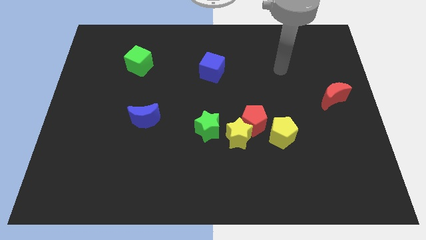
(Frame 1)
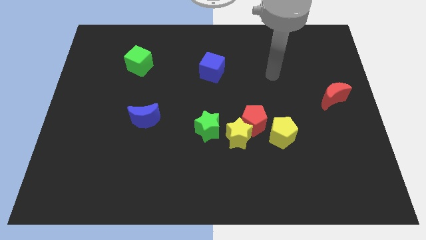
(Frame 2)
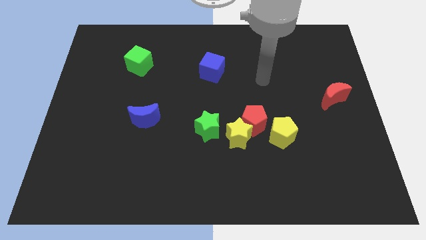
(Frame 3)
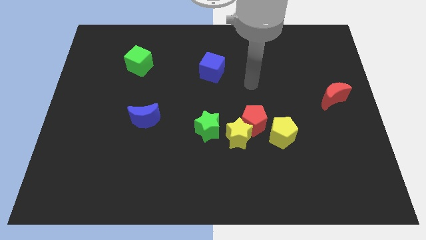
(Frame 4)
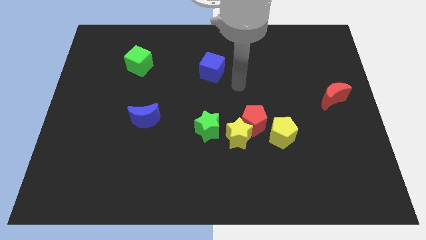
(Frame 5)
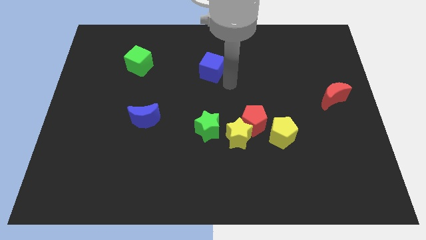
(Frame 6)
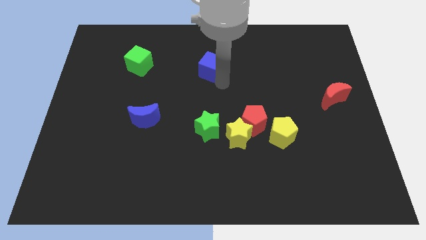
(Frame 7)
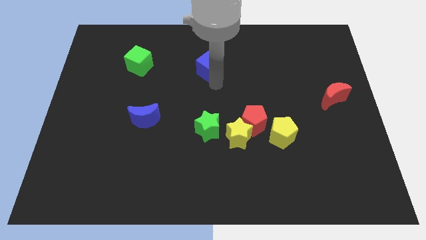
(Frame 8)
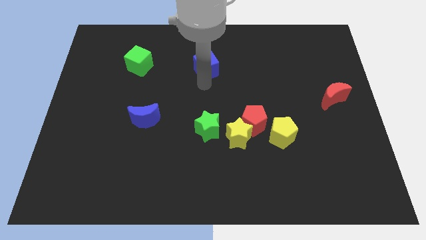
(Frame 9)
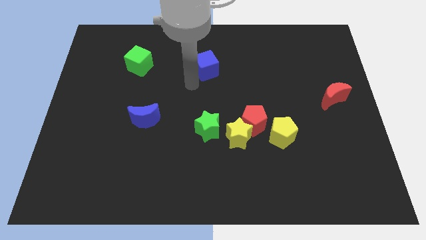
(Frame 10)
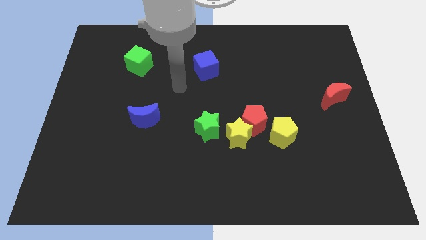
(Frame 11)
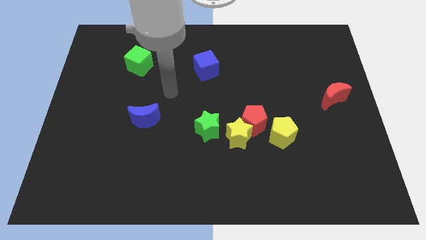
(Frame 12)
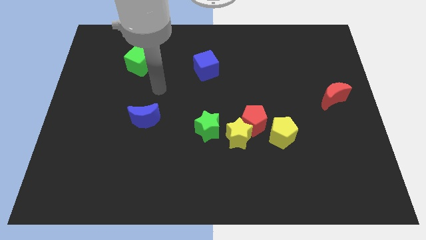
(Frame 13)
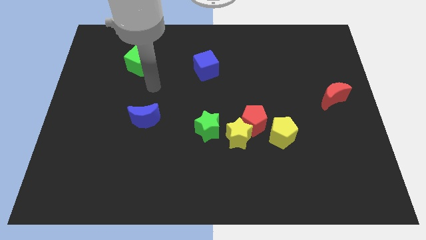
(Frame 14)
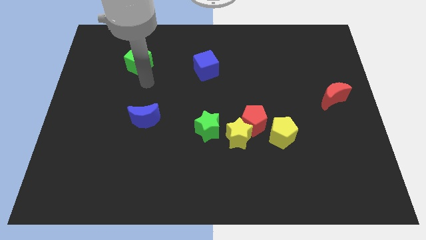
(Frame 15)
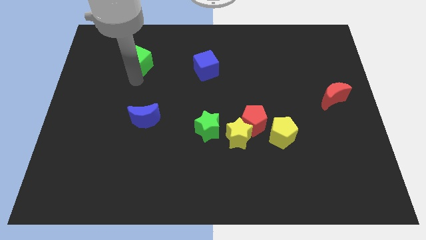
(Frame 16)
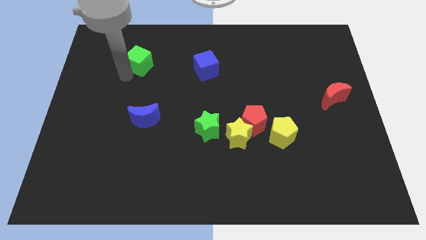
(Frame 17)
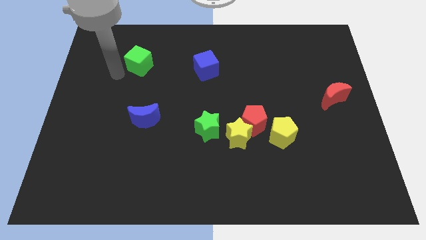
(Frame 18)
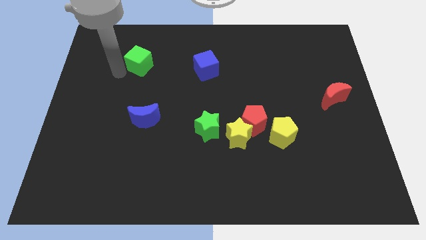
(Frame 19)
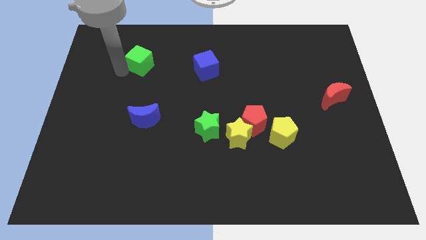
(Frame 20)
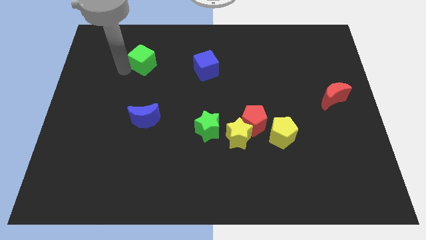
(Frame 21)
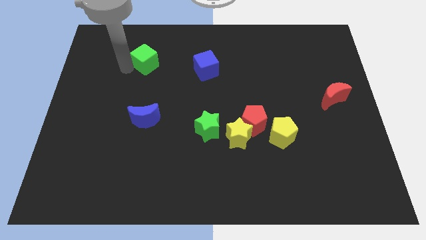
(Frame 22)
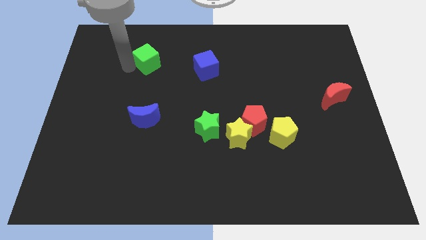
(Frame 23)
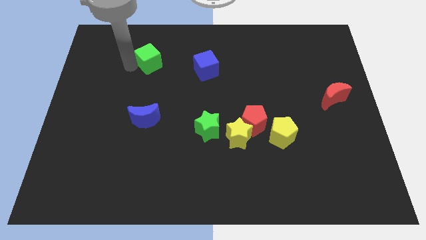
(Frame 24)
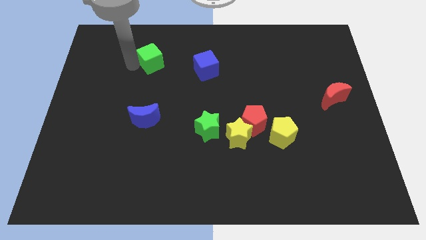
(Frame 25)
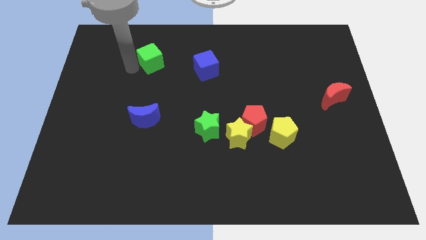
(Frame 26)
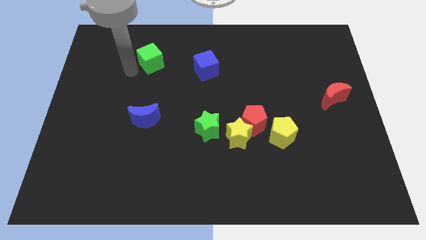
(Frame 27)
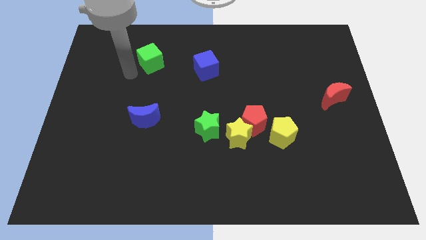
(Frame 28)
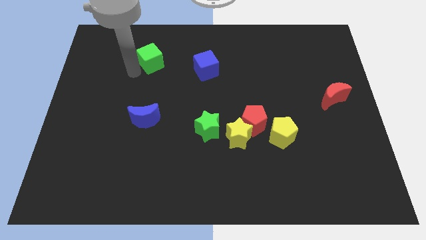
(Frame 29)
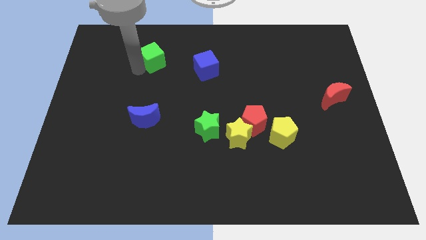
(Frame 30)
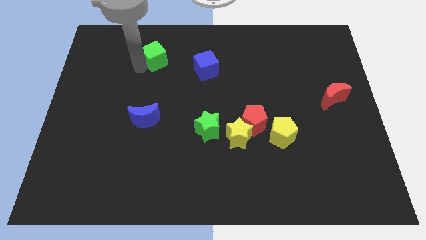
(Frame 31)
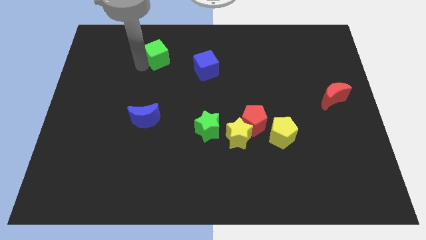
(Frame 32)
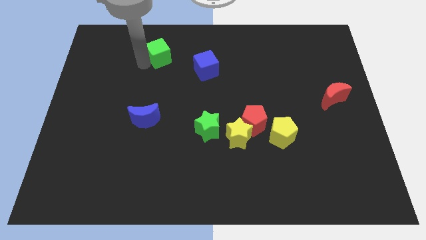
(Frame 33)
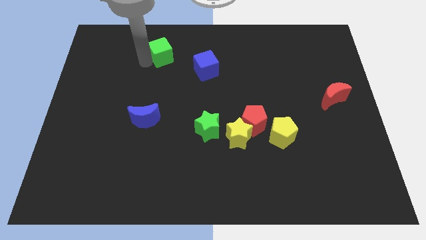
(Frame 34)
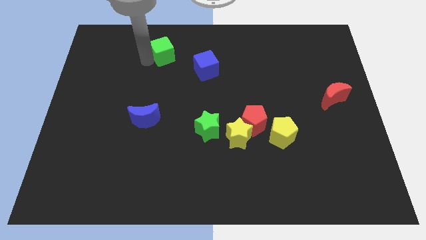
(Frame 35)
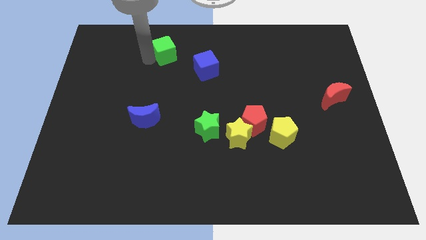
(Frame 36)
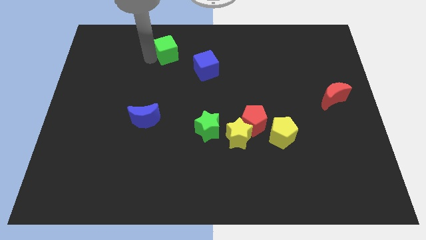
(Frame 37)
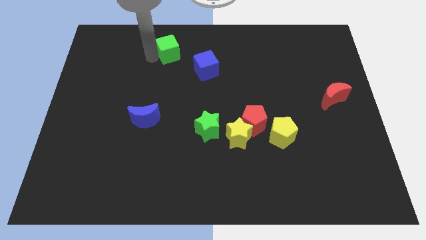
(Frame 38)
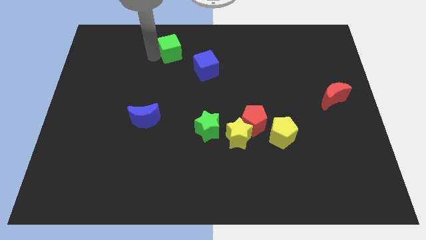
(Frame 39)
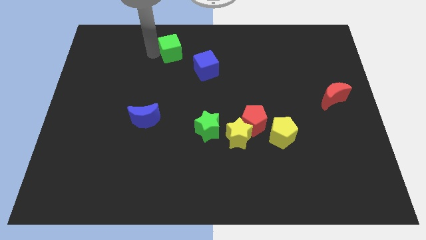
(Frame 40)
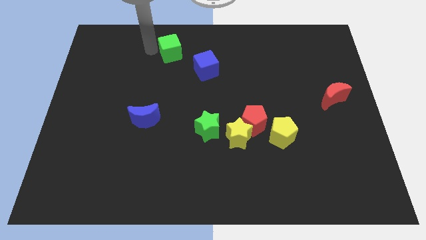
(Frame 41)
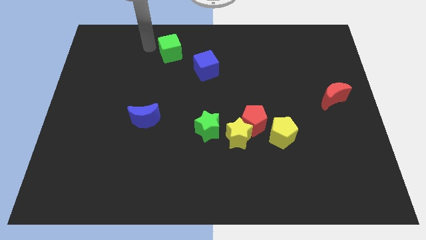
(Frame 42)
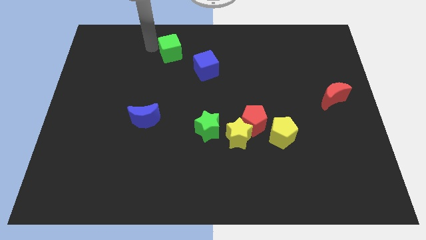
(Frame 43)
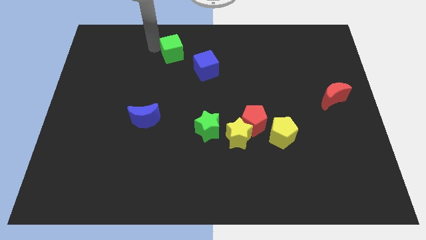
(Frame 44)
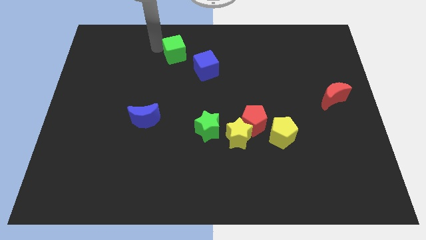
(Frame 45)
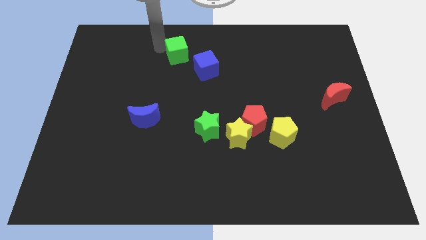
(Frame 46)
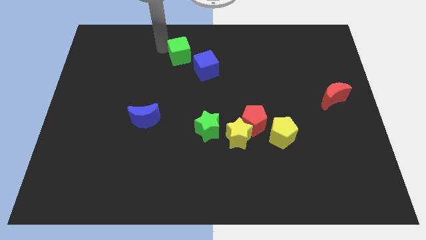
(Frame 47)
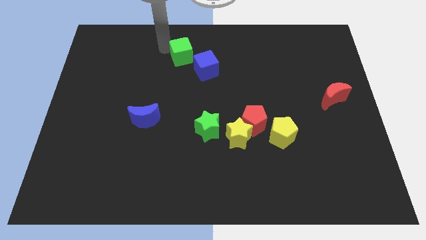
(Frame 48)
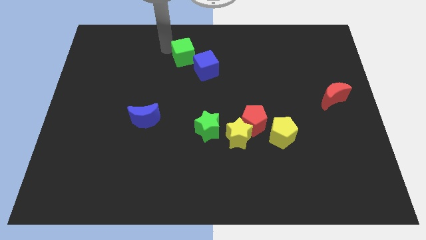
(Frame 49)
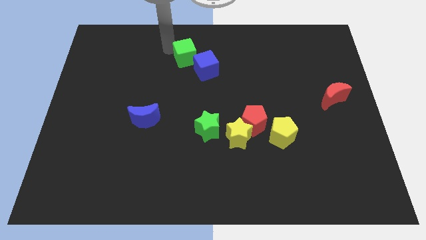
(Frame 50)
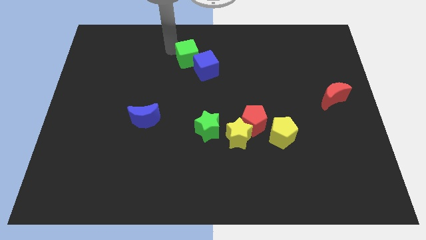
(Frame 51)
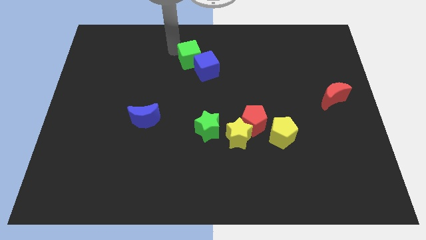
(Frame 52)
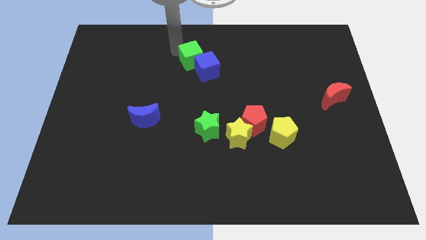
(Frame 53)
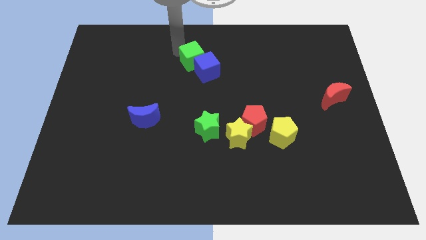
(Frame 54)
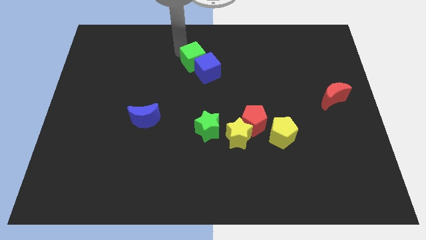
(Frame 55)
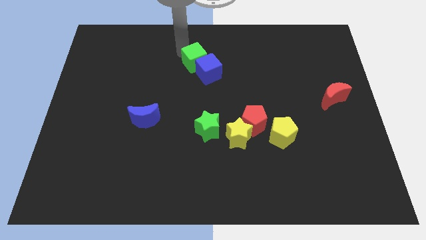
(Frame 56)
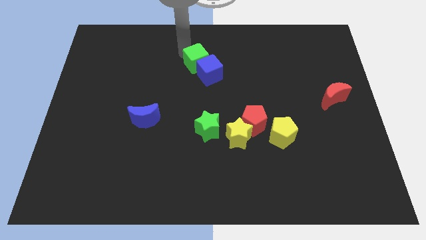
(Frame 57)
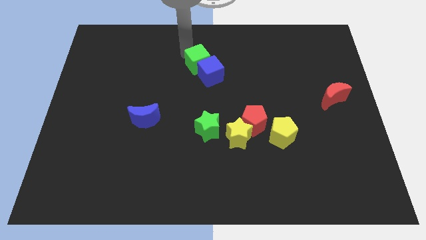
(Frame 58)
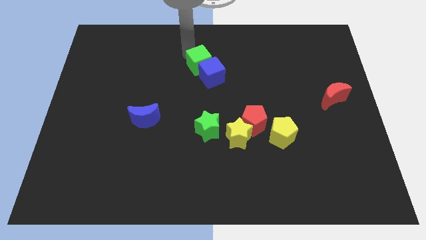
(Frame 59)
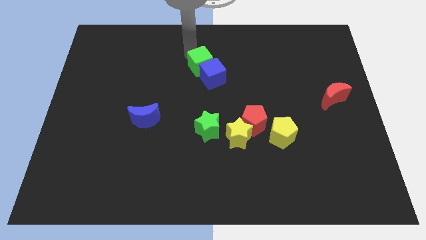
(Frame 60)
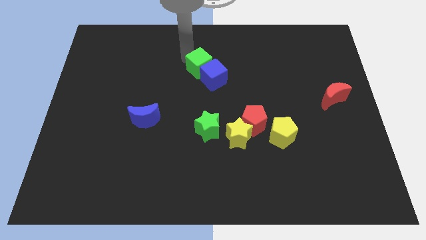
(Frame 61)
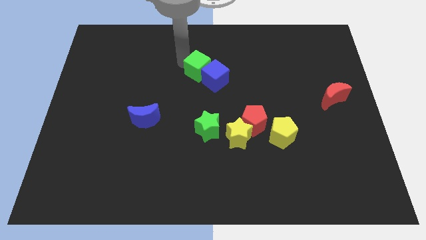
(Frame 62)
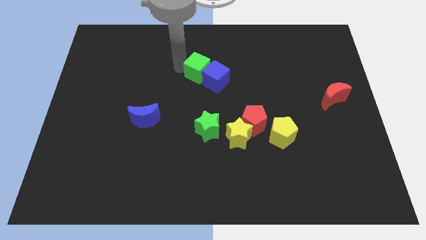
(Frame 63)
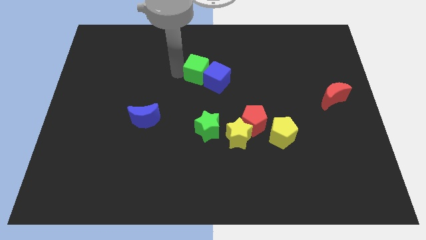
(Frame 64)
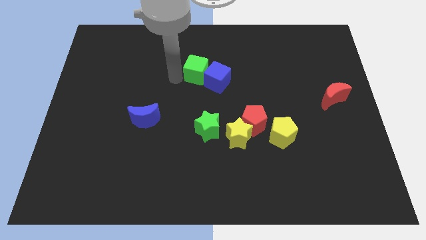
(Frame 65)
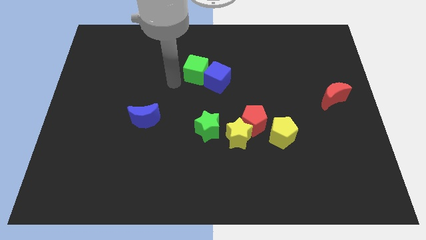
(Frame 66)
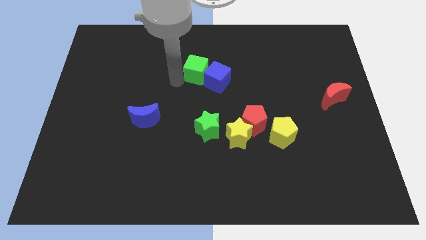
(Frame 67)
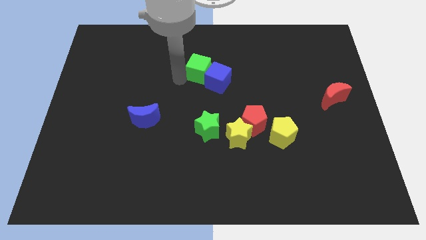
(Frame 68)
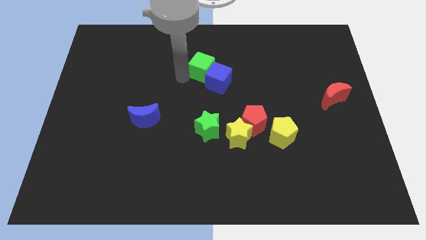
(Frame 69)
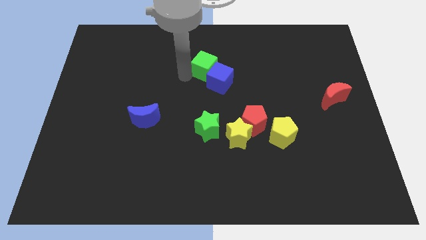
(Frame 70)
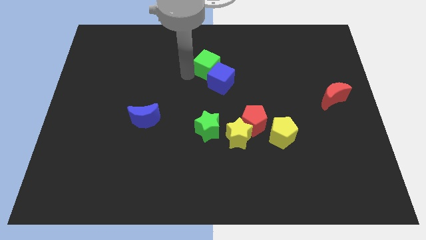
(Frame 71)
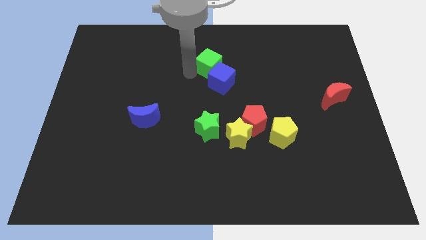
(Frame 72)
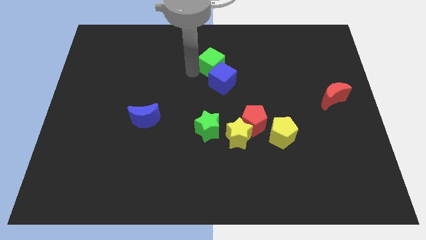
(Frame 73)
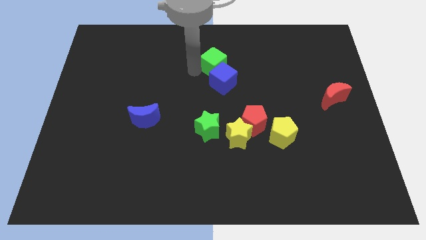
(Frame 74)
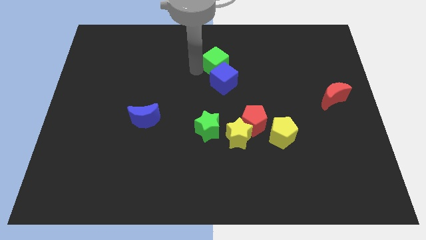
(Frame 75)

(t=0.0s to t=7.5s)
slide the green cube right

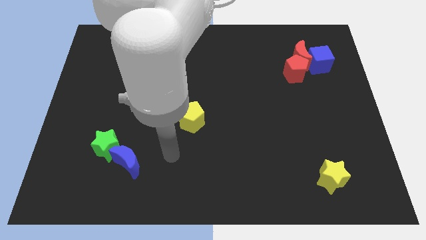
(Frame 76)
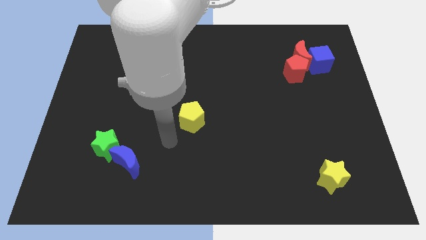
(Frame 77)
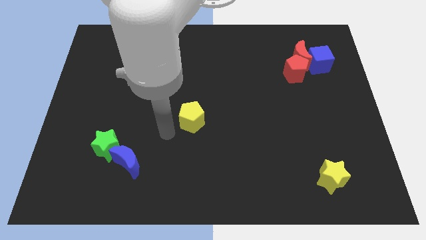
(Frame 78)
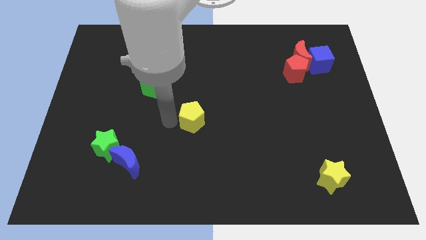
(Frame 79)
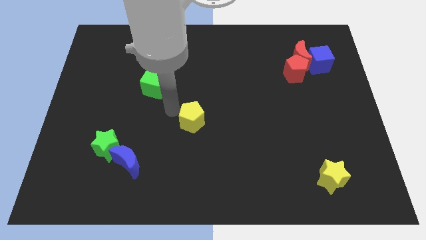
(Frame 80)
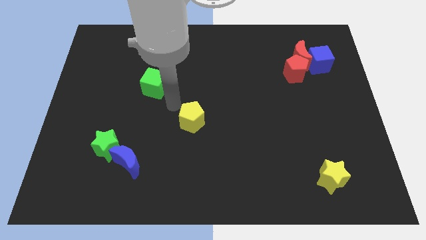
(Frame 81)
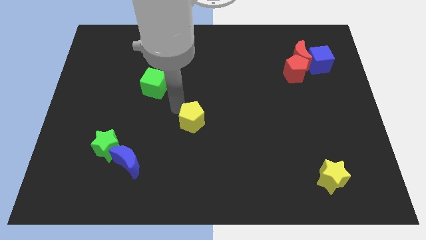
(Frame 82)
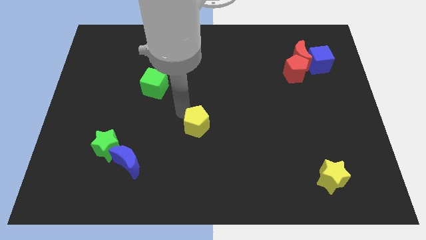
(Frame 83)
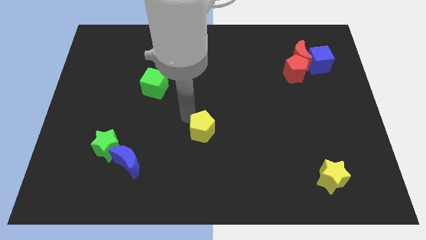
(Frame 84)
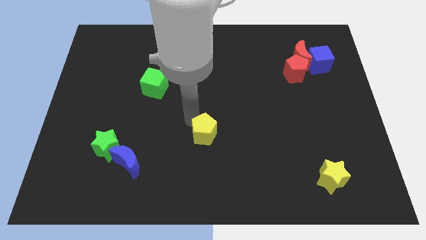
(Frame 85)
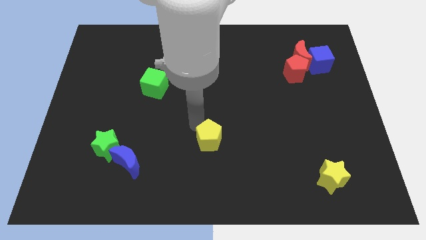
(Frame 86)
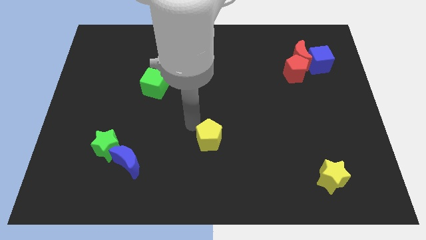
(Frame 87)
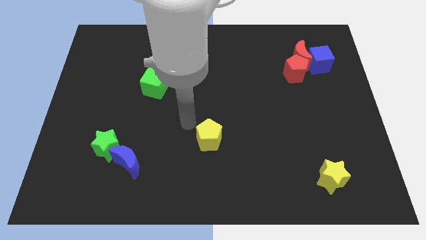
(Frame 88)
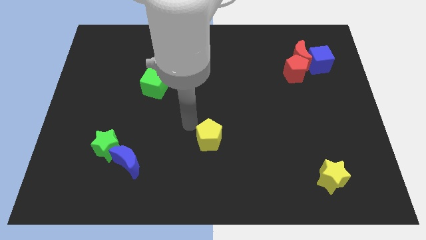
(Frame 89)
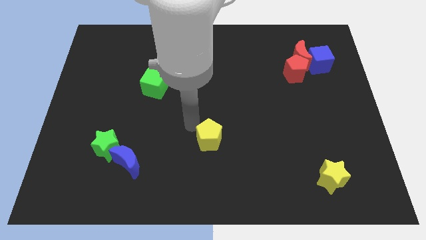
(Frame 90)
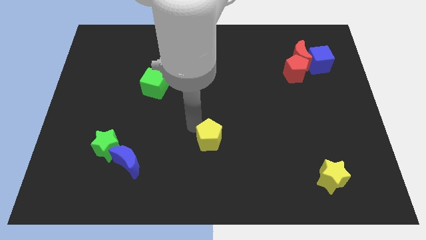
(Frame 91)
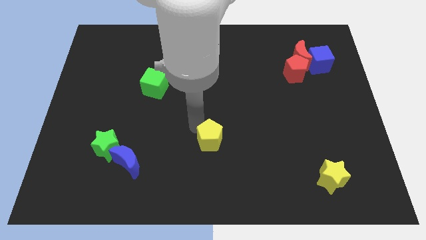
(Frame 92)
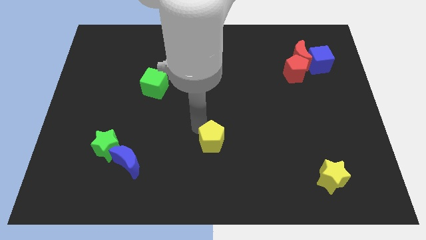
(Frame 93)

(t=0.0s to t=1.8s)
move the yellow pentagon down and then right a little bit
